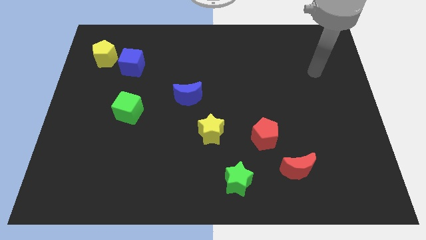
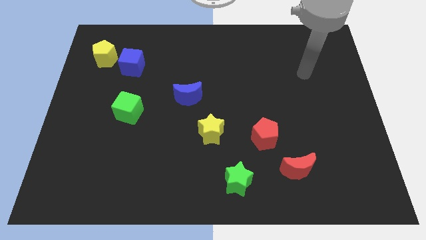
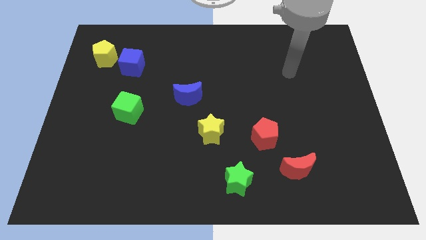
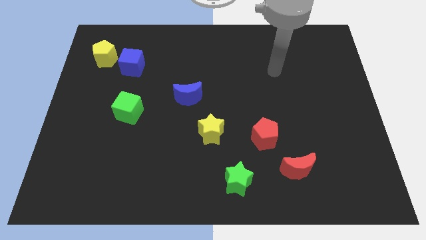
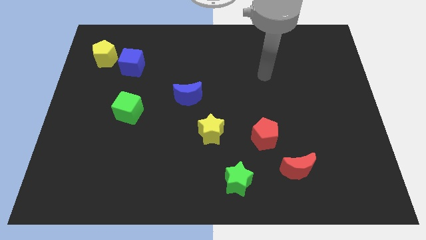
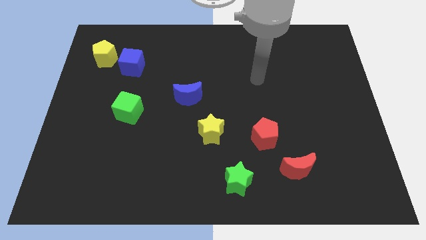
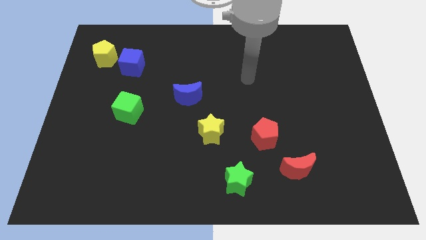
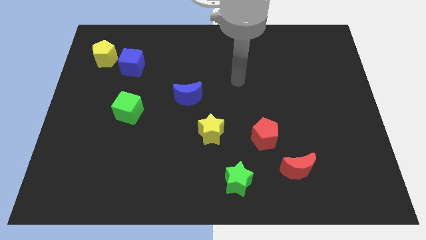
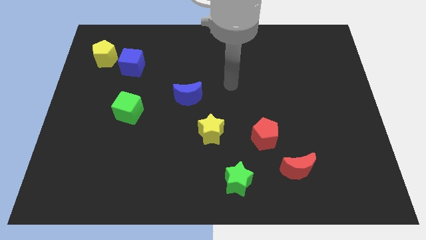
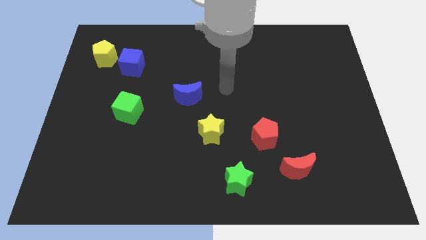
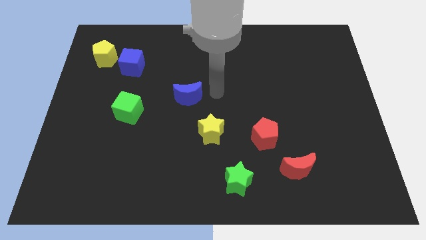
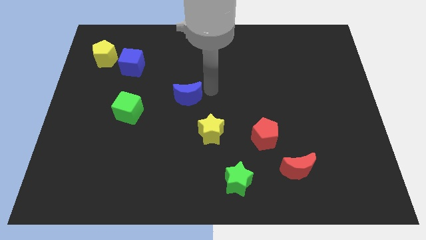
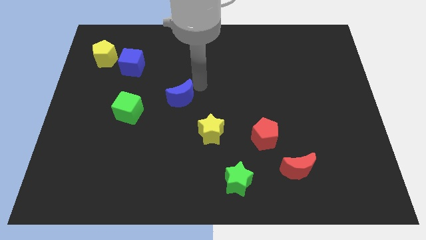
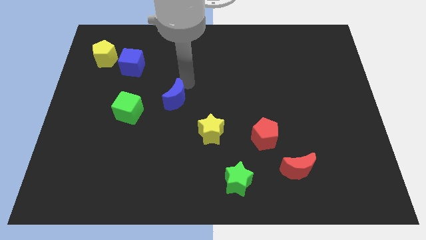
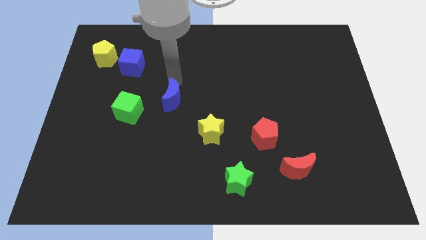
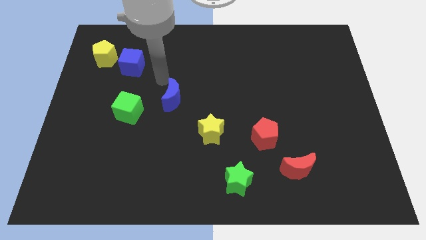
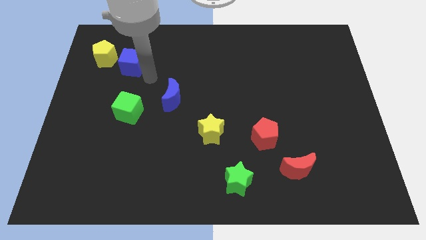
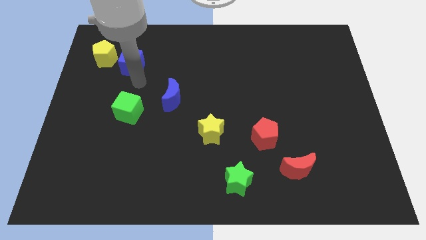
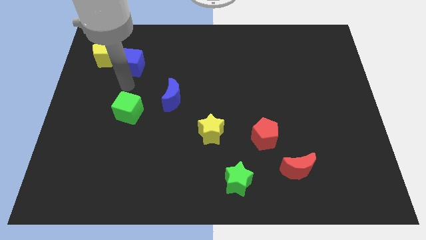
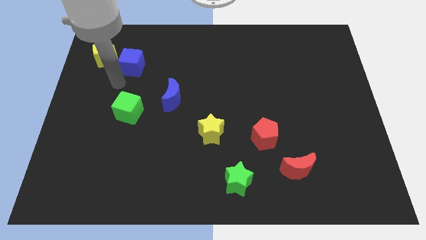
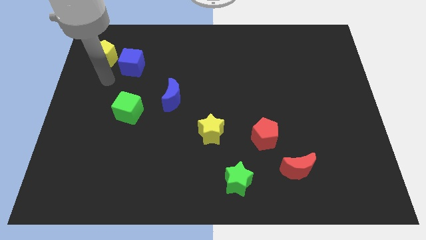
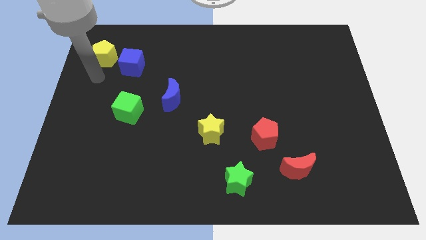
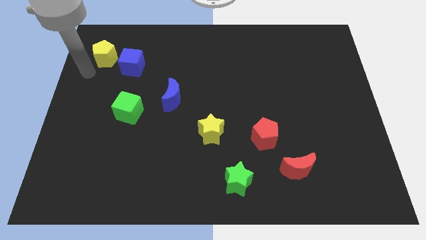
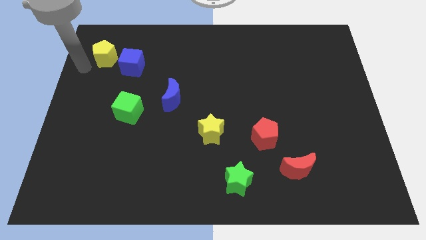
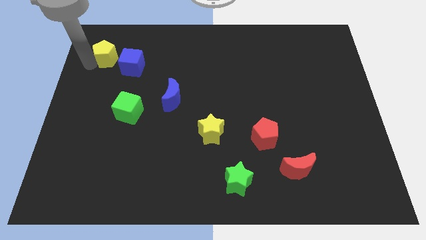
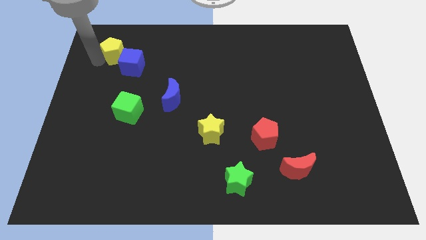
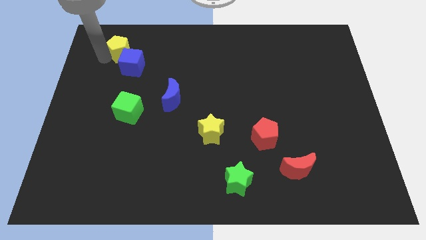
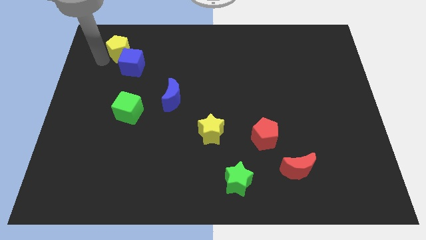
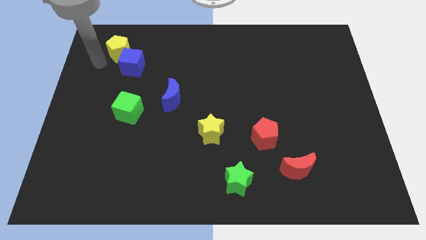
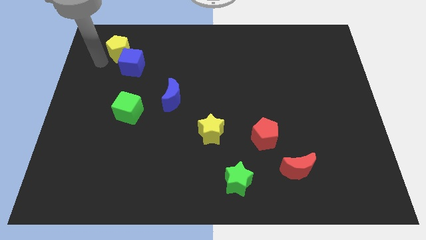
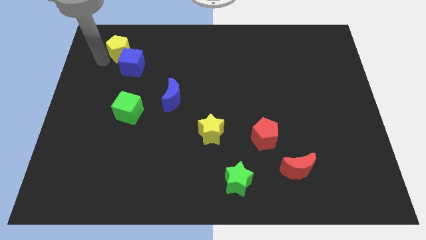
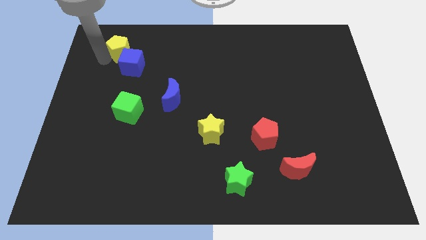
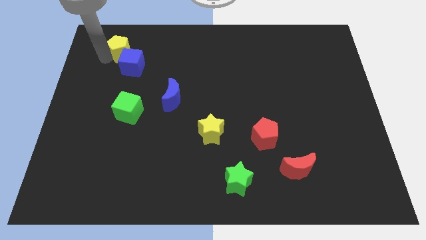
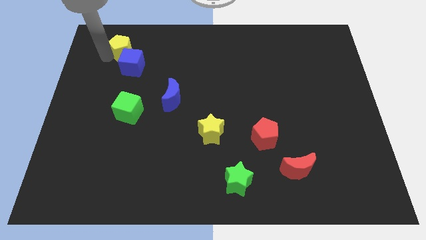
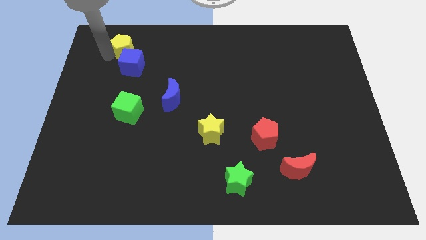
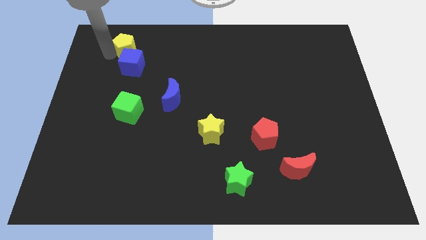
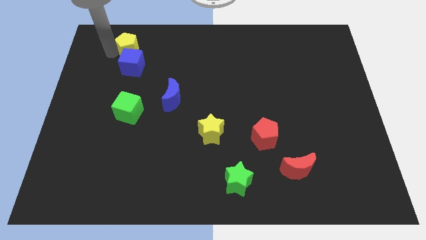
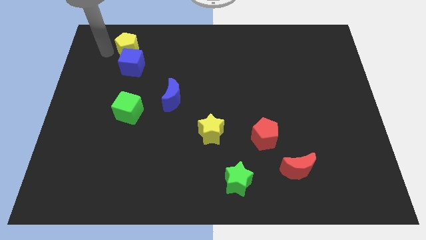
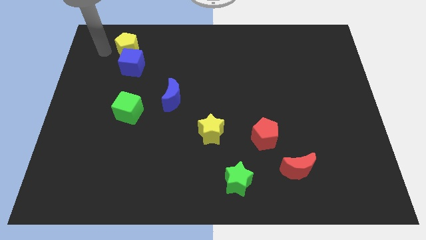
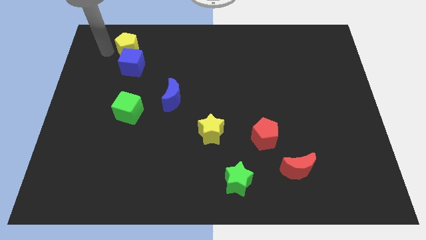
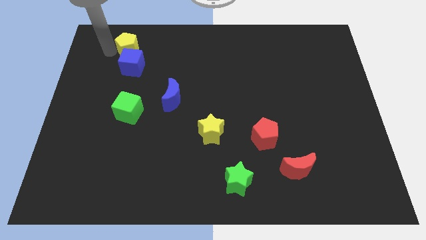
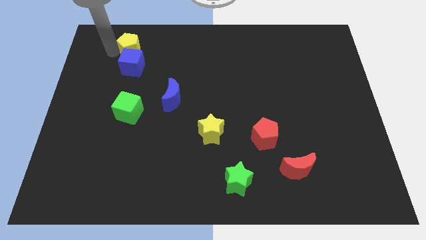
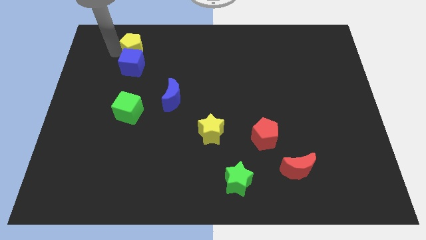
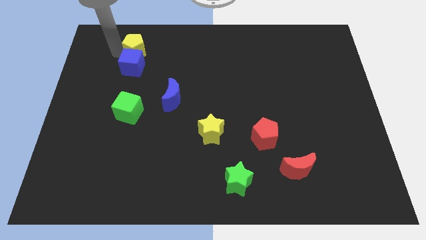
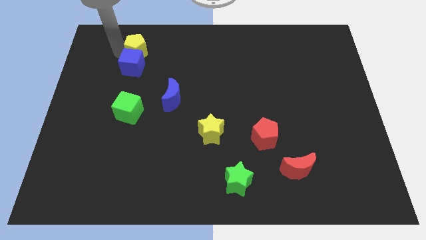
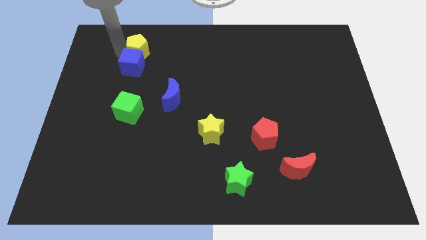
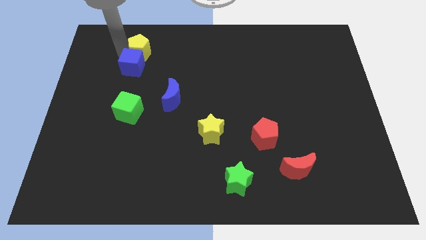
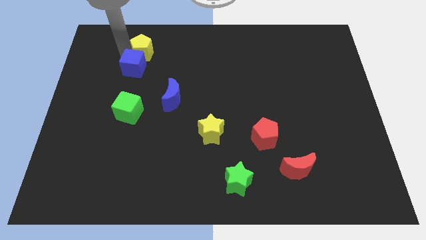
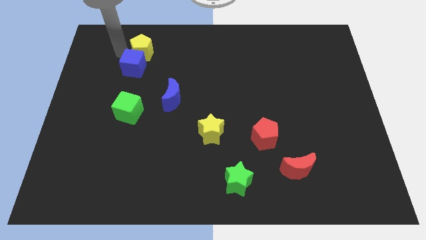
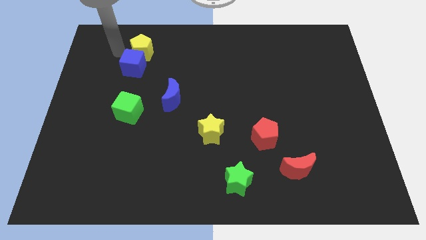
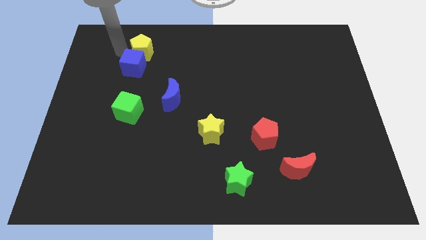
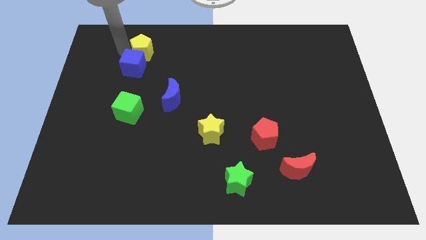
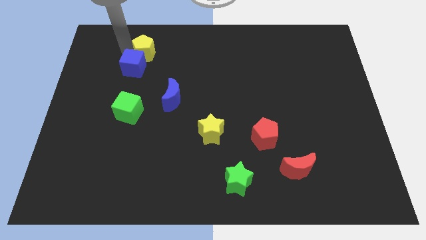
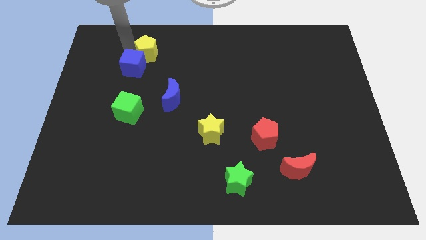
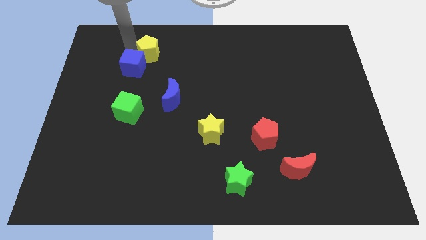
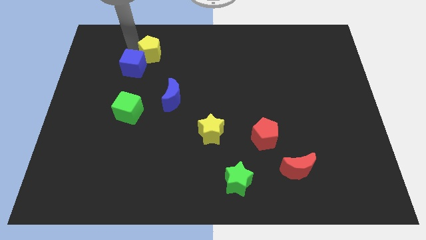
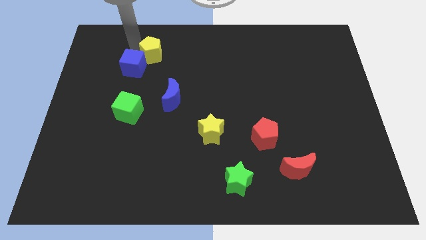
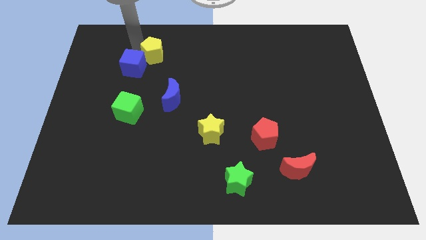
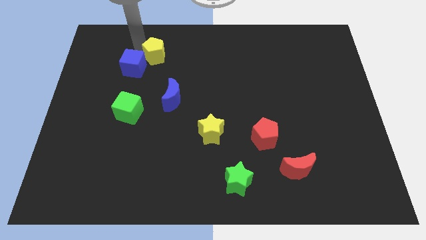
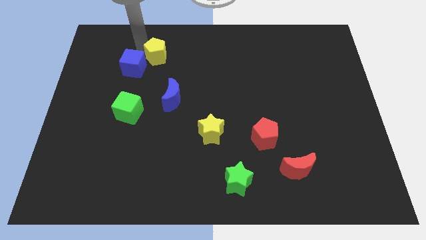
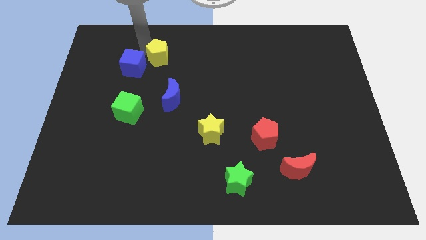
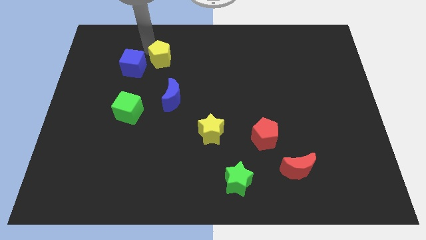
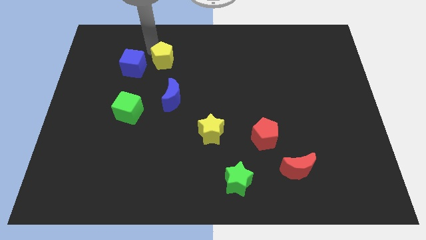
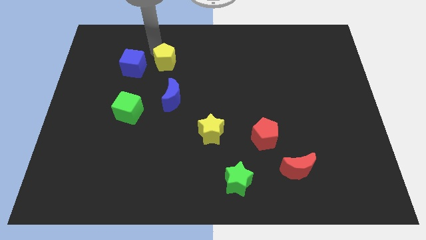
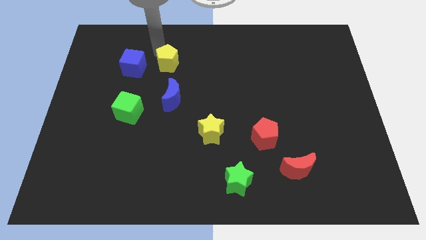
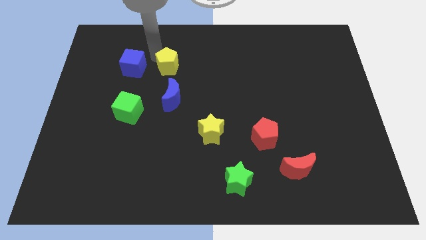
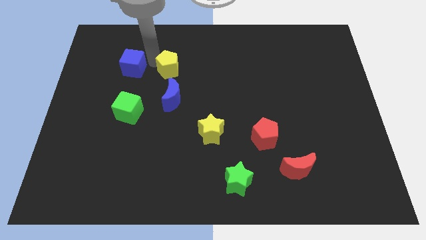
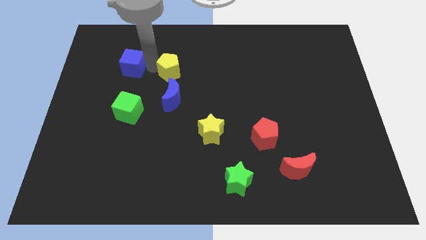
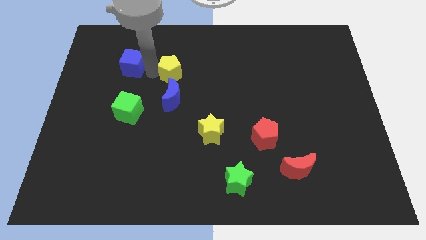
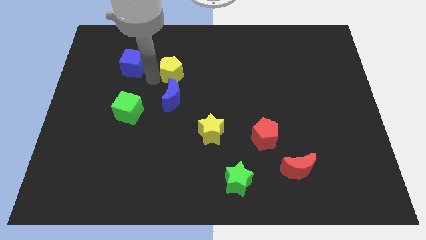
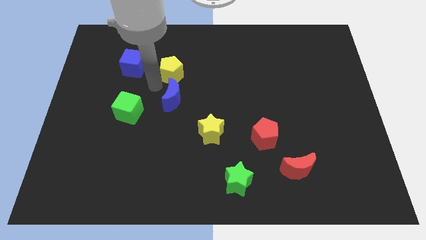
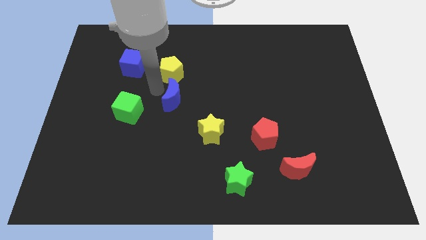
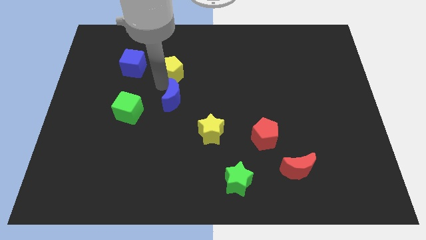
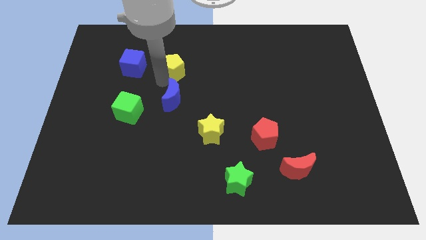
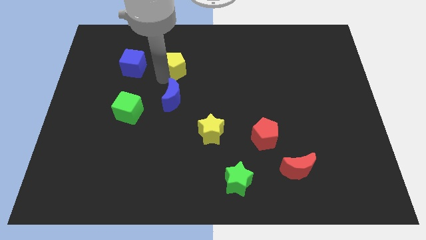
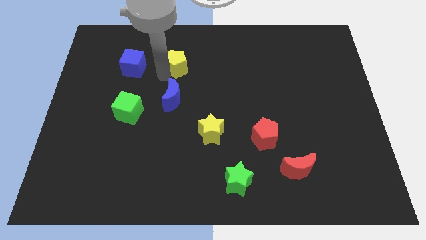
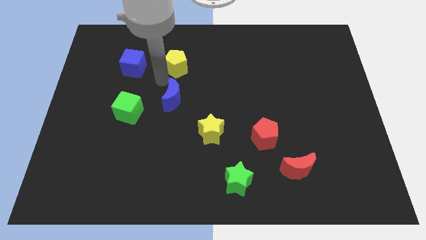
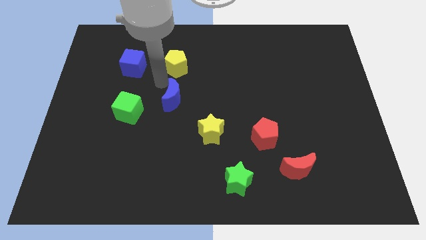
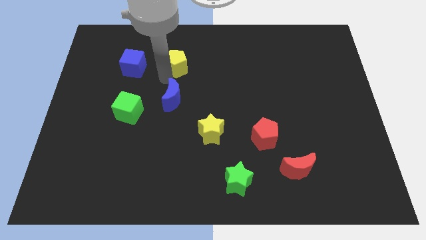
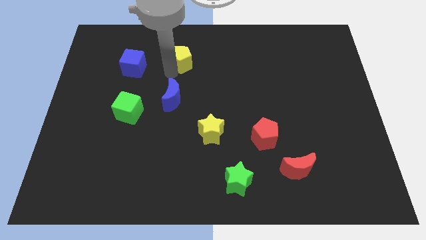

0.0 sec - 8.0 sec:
slide the yellow pentagon to the right
